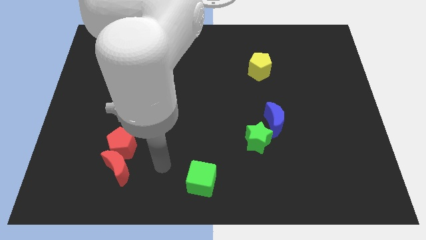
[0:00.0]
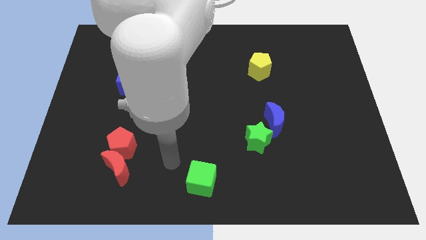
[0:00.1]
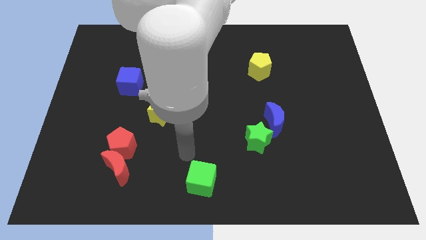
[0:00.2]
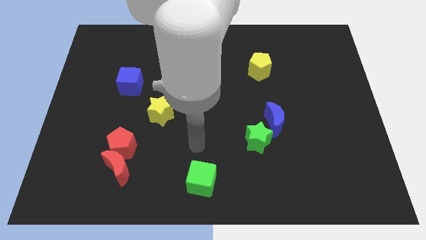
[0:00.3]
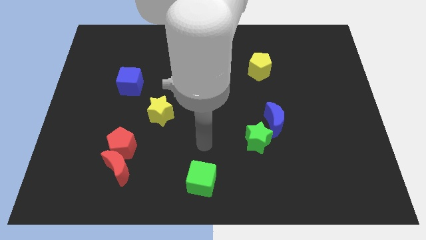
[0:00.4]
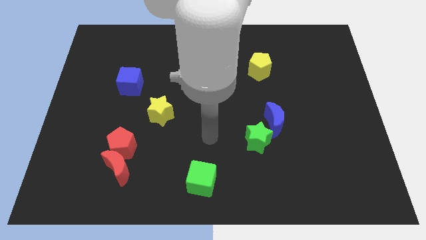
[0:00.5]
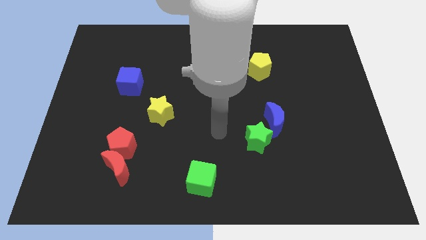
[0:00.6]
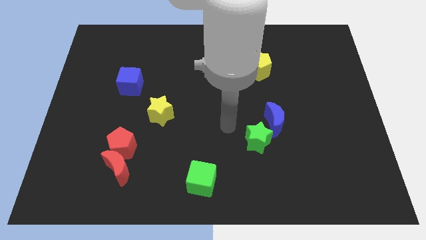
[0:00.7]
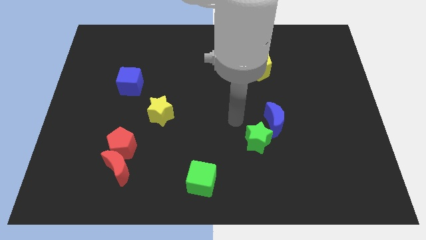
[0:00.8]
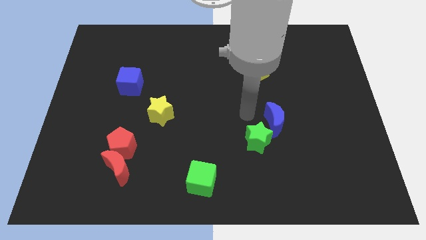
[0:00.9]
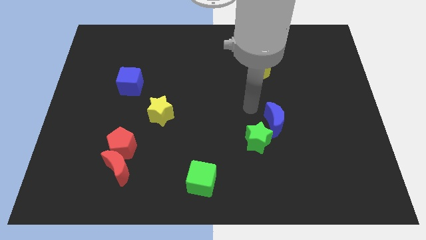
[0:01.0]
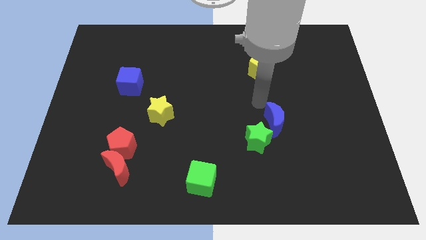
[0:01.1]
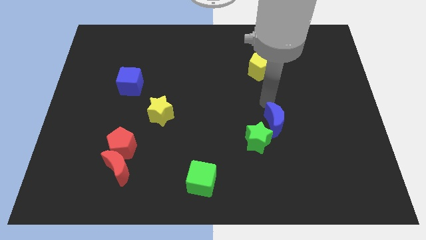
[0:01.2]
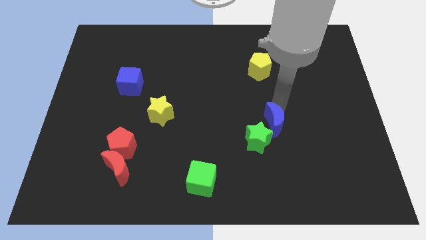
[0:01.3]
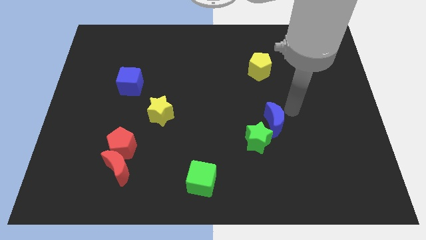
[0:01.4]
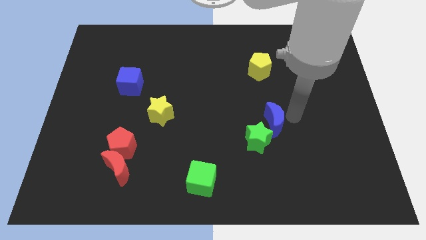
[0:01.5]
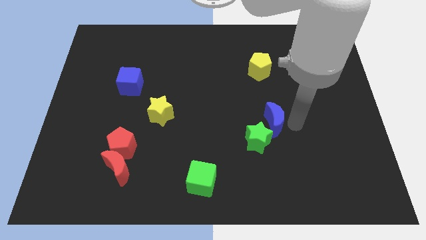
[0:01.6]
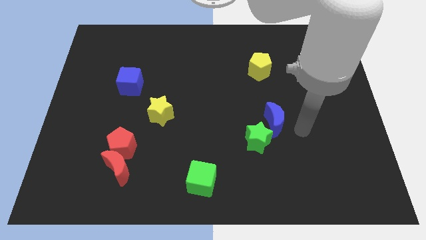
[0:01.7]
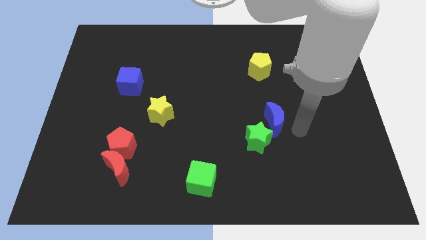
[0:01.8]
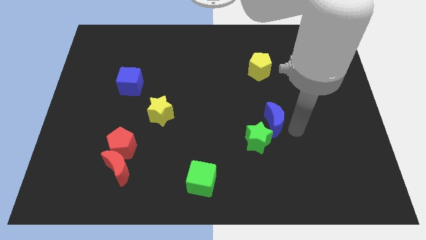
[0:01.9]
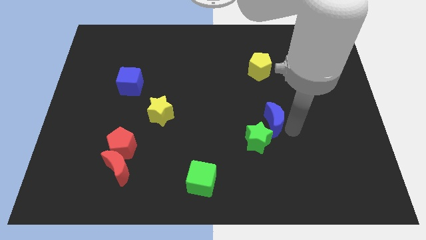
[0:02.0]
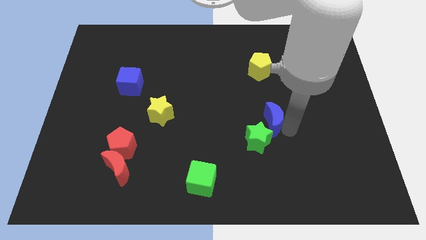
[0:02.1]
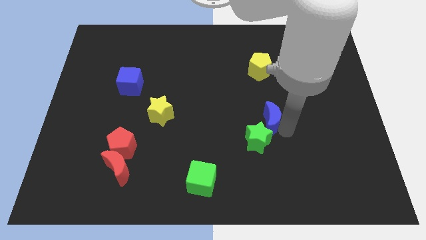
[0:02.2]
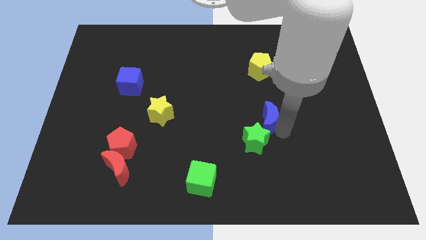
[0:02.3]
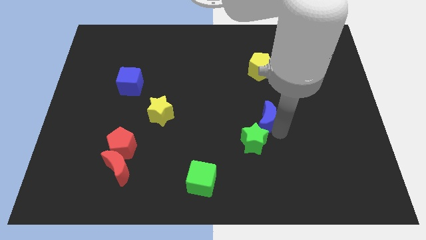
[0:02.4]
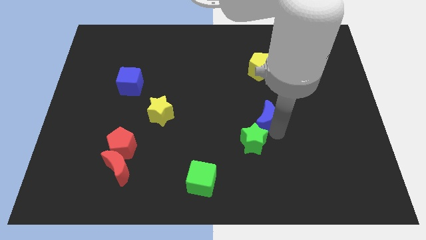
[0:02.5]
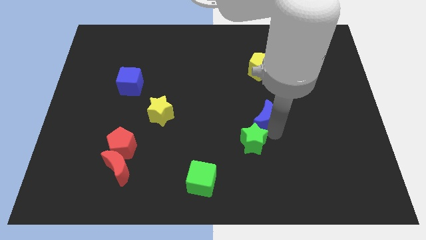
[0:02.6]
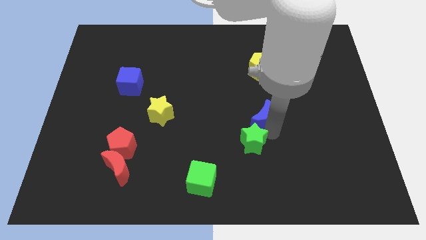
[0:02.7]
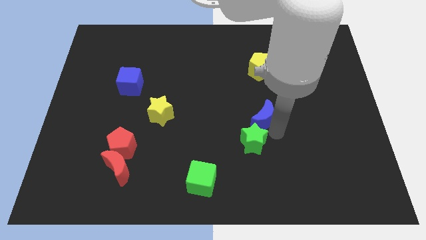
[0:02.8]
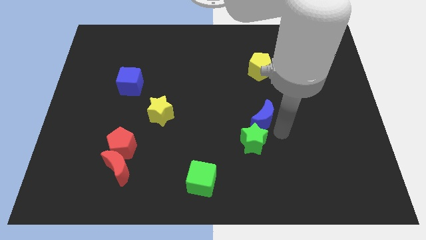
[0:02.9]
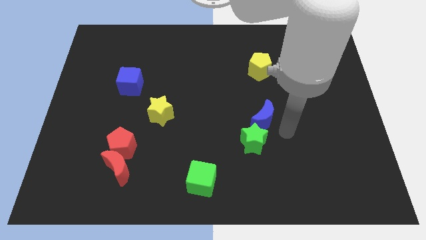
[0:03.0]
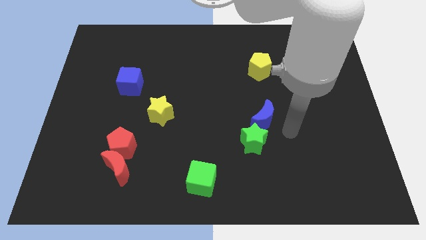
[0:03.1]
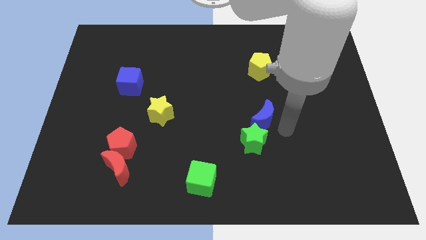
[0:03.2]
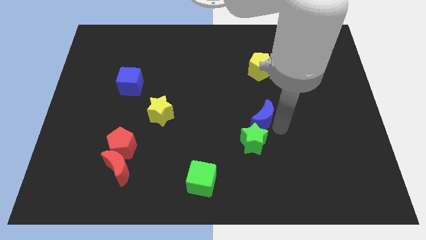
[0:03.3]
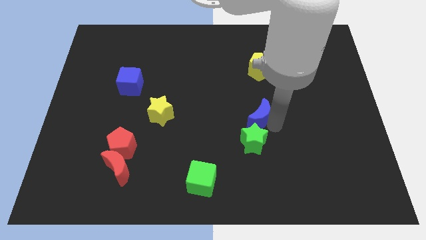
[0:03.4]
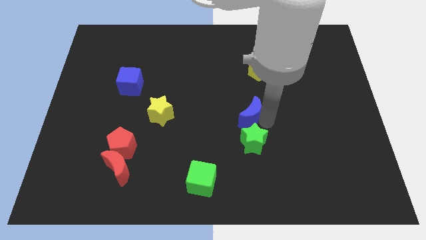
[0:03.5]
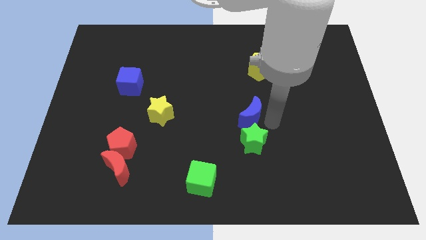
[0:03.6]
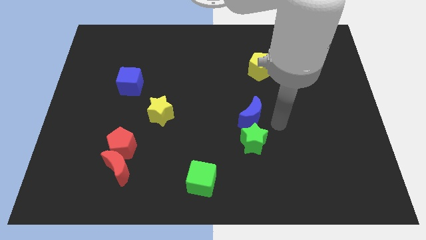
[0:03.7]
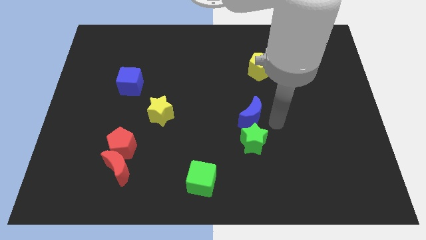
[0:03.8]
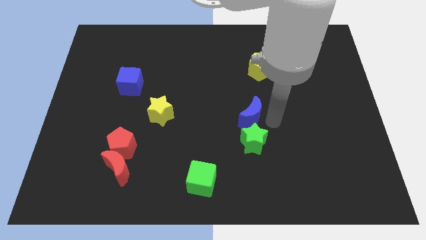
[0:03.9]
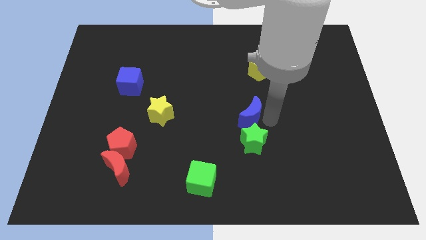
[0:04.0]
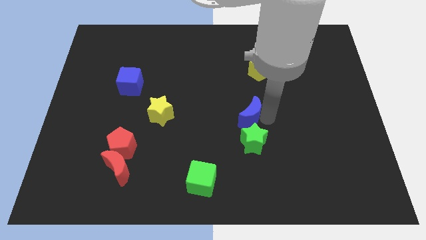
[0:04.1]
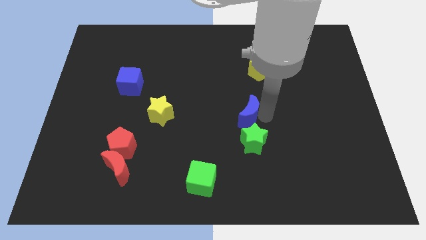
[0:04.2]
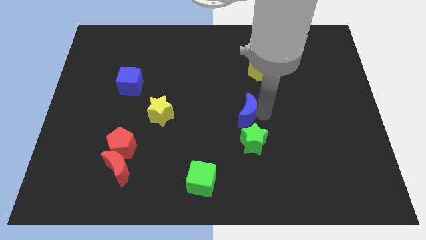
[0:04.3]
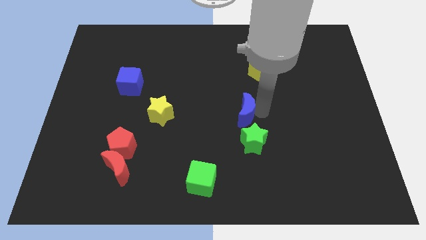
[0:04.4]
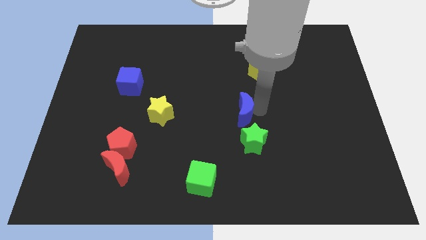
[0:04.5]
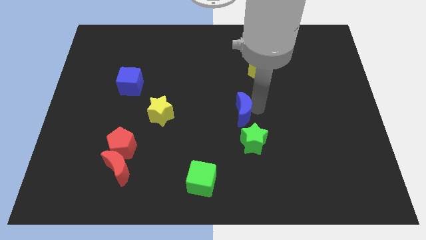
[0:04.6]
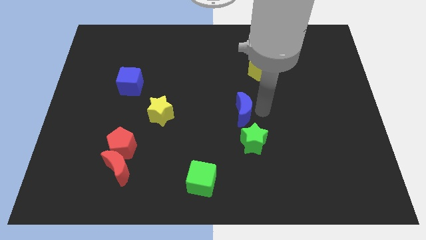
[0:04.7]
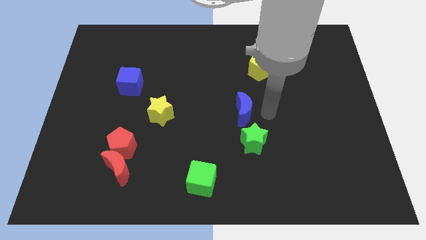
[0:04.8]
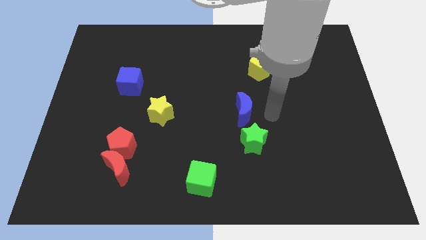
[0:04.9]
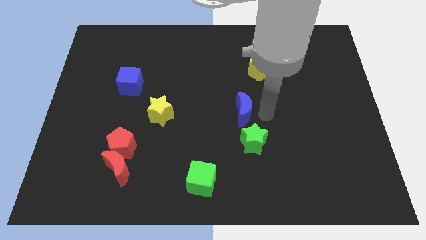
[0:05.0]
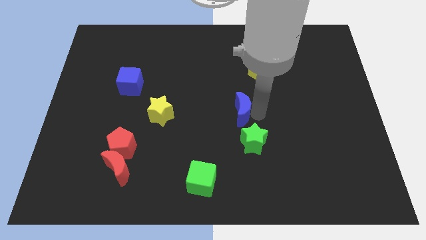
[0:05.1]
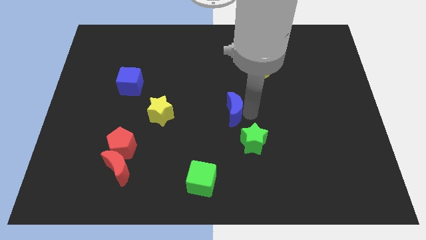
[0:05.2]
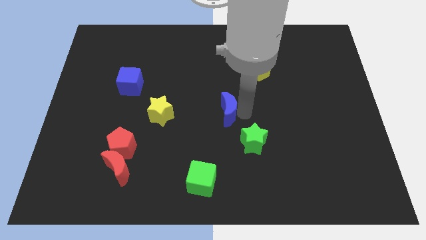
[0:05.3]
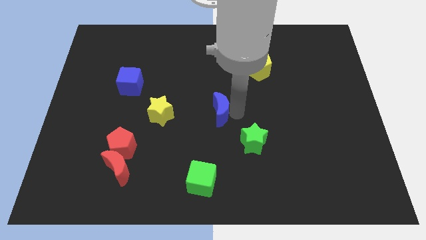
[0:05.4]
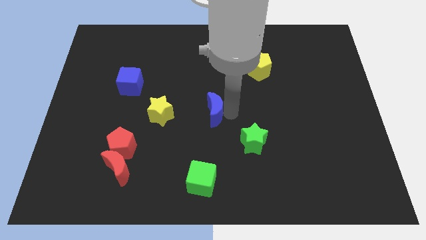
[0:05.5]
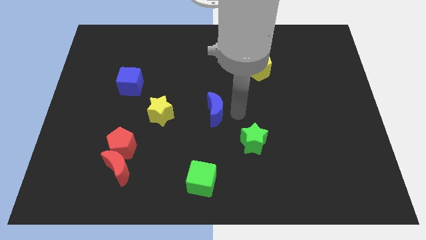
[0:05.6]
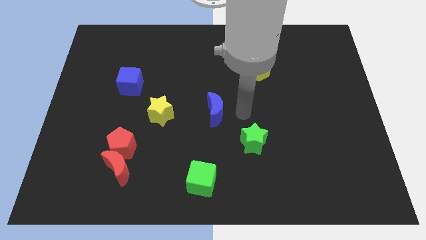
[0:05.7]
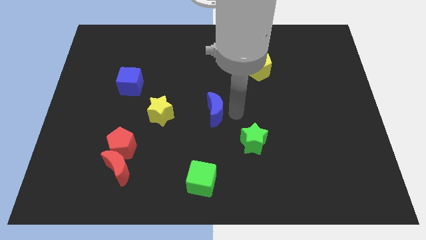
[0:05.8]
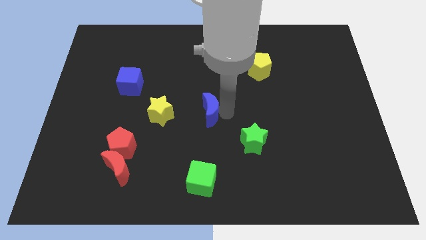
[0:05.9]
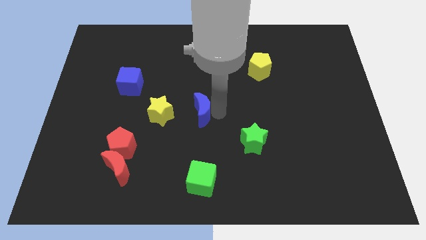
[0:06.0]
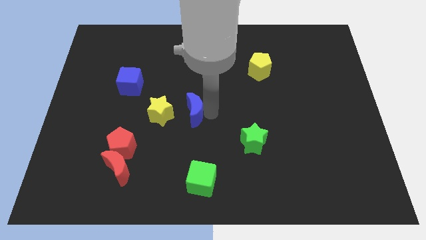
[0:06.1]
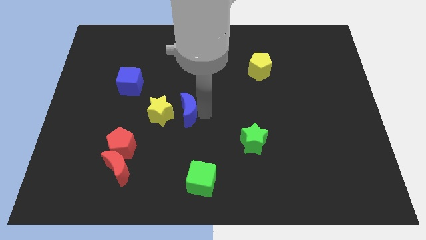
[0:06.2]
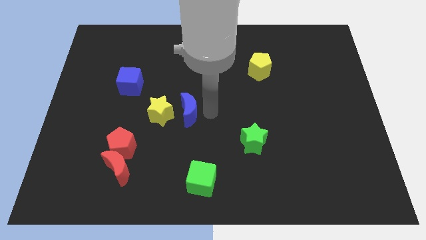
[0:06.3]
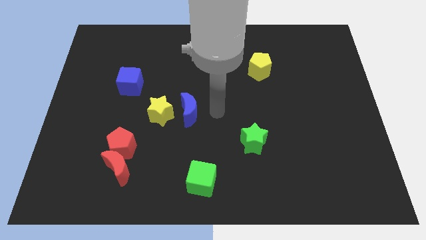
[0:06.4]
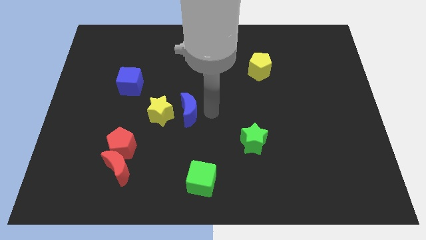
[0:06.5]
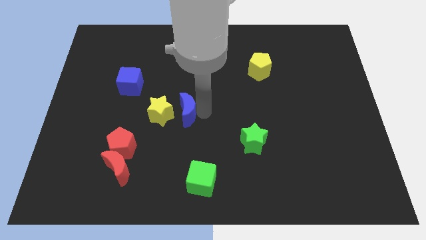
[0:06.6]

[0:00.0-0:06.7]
push the blue moon close to the yellow star

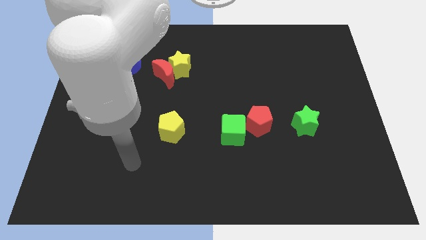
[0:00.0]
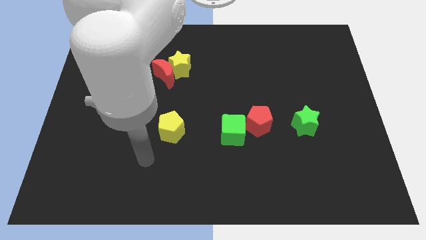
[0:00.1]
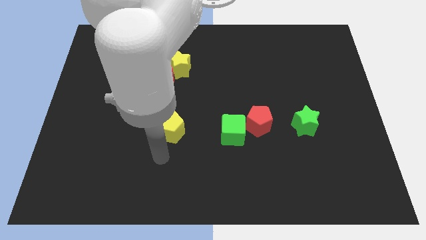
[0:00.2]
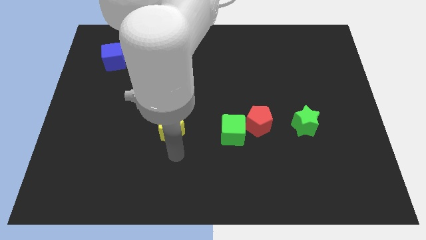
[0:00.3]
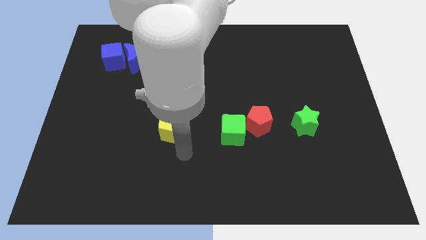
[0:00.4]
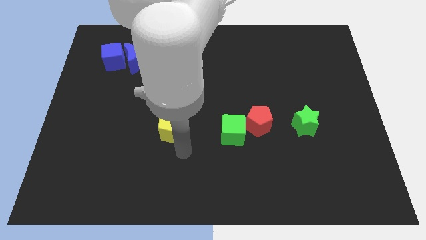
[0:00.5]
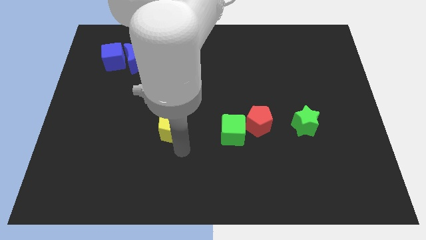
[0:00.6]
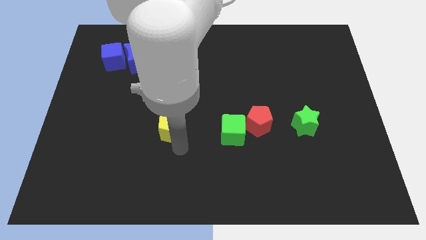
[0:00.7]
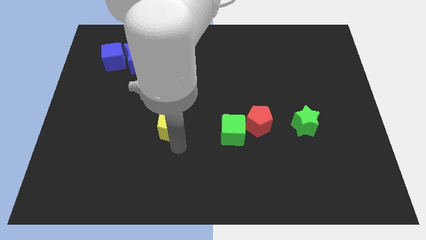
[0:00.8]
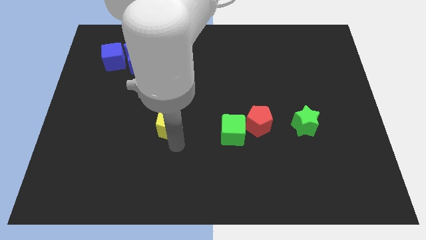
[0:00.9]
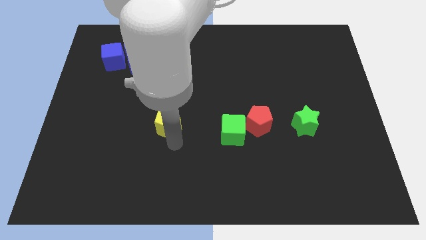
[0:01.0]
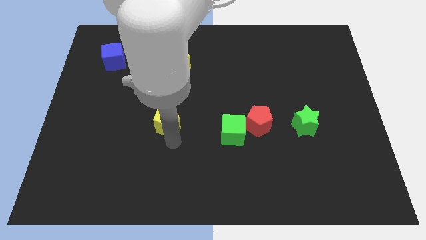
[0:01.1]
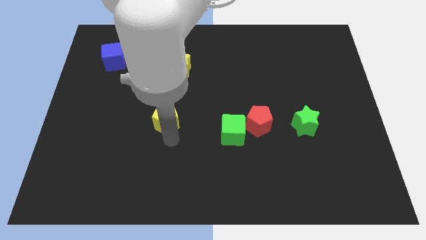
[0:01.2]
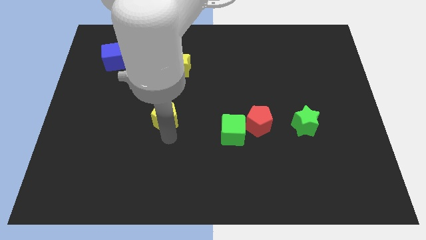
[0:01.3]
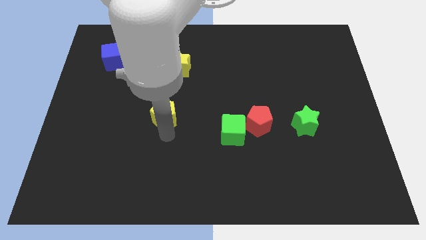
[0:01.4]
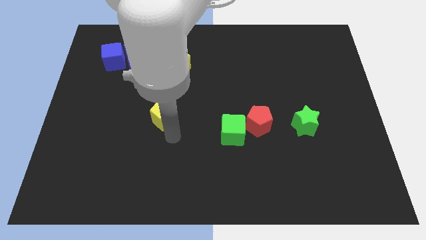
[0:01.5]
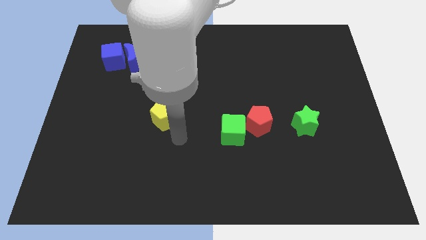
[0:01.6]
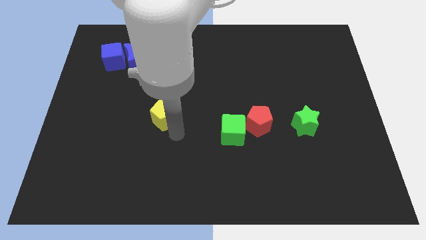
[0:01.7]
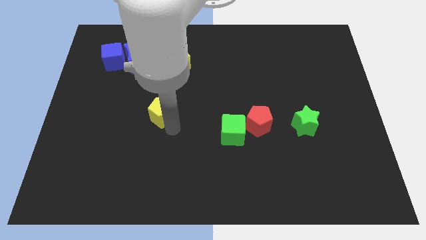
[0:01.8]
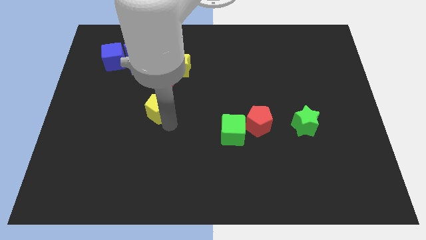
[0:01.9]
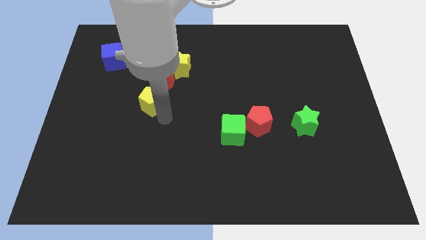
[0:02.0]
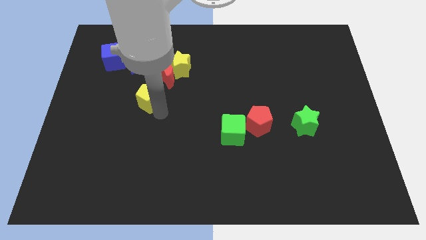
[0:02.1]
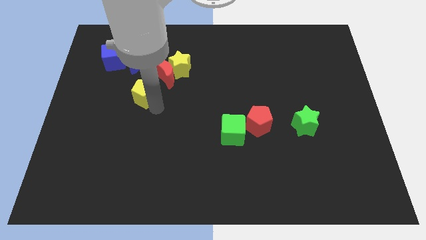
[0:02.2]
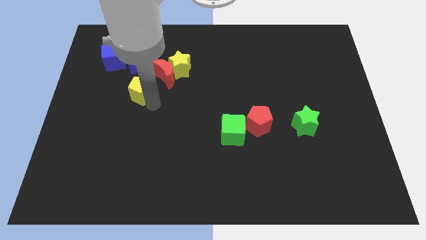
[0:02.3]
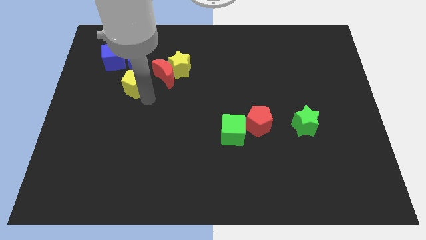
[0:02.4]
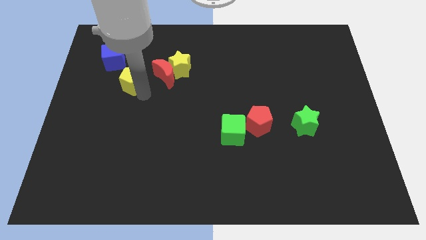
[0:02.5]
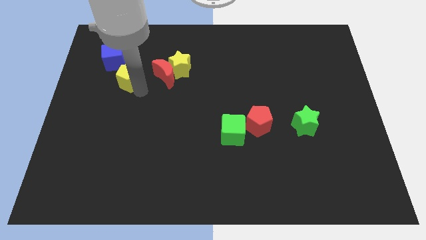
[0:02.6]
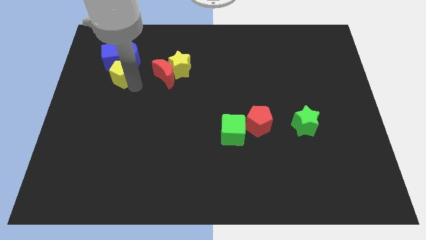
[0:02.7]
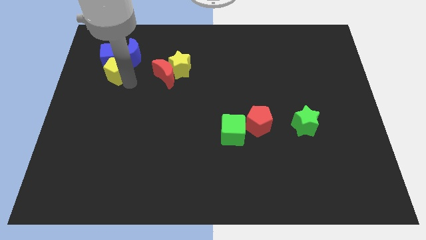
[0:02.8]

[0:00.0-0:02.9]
move the yellow pentagon towards the blue cube
